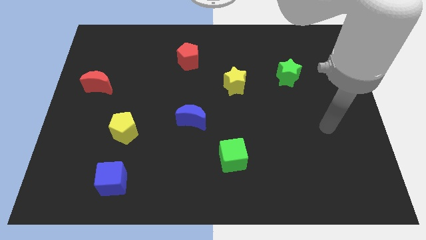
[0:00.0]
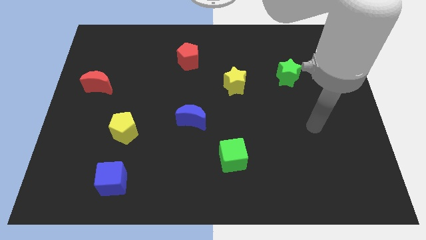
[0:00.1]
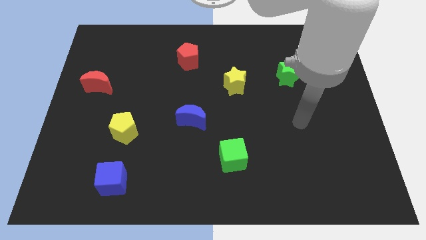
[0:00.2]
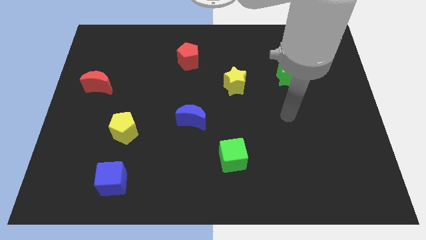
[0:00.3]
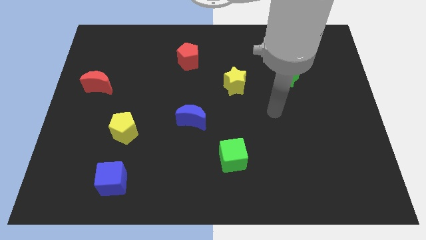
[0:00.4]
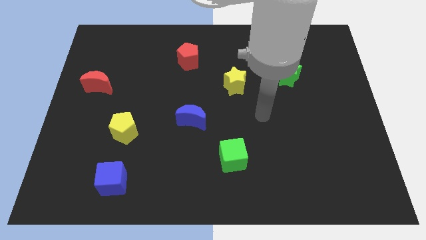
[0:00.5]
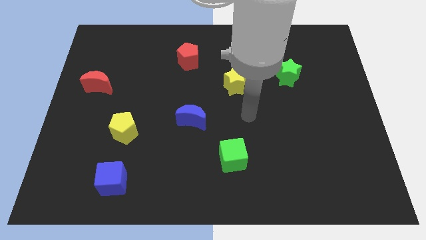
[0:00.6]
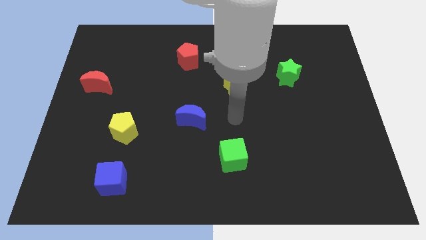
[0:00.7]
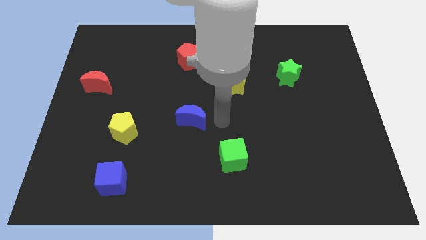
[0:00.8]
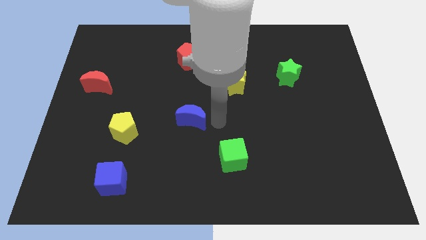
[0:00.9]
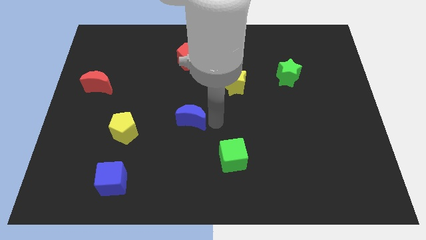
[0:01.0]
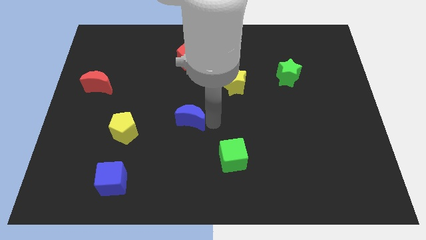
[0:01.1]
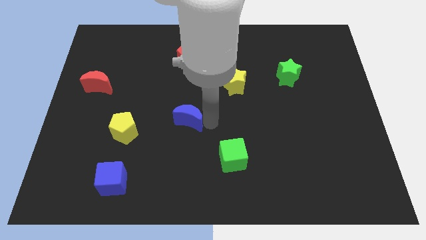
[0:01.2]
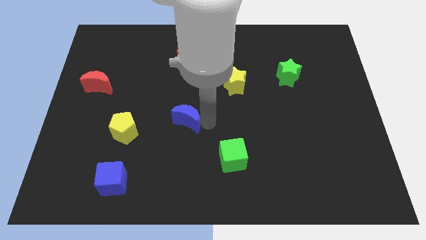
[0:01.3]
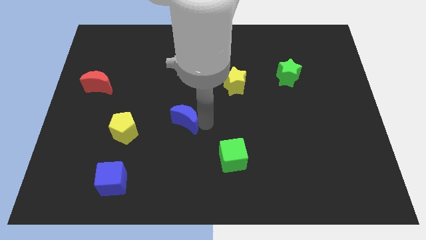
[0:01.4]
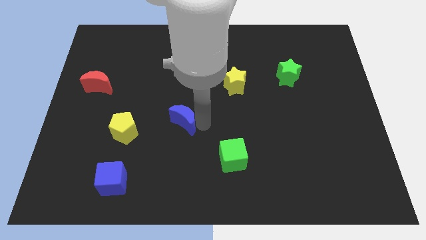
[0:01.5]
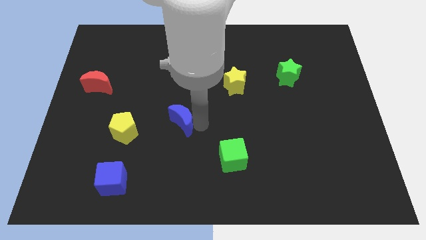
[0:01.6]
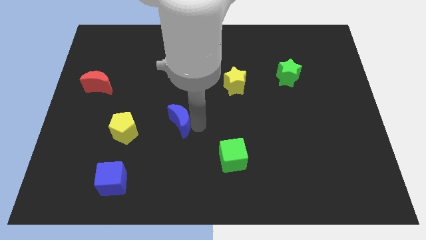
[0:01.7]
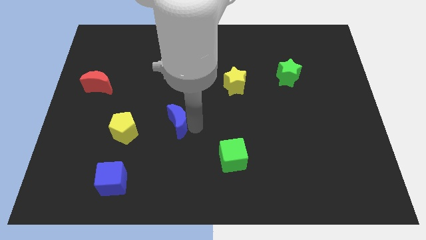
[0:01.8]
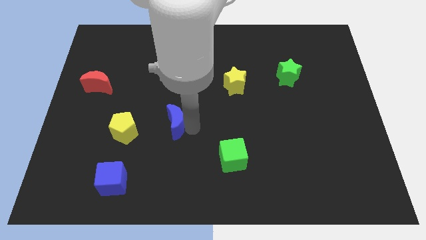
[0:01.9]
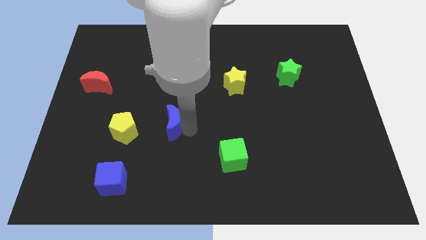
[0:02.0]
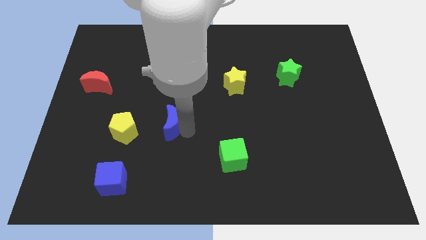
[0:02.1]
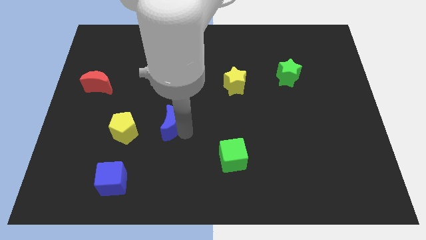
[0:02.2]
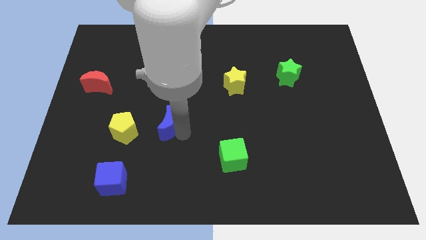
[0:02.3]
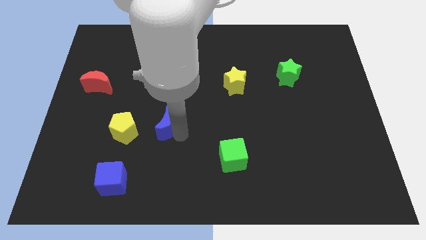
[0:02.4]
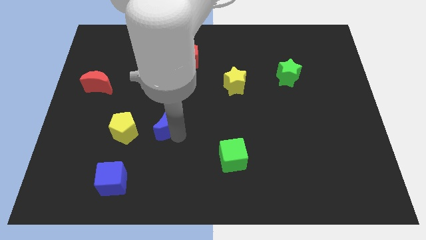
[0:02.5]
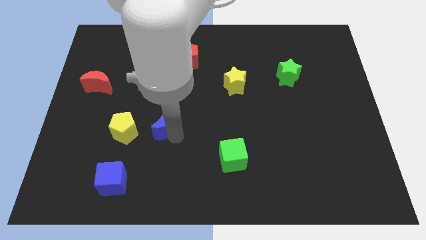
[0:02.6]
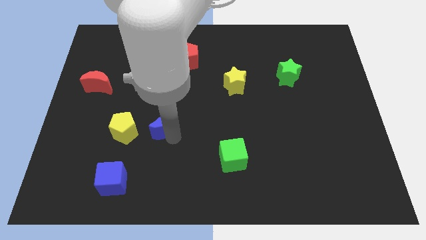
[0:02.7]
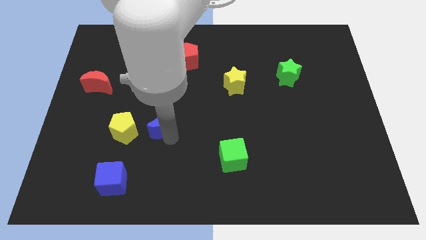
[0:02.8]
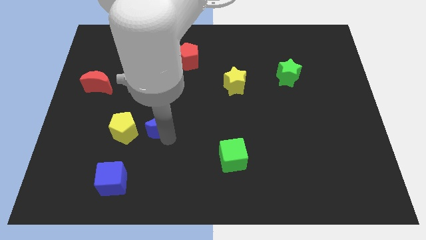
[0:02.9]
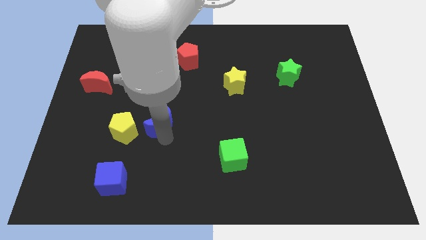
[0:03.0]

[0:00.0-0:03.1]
push the blue moon left a little bit

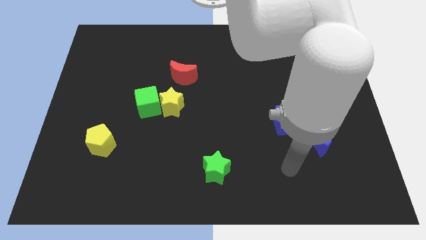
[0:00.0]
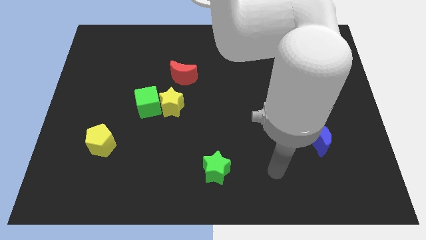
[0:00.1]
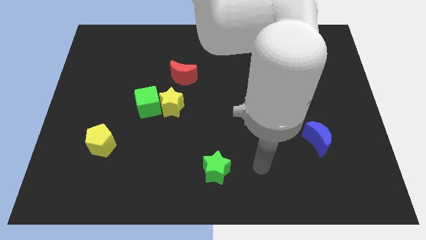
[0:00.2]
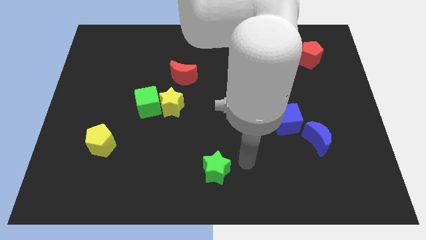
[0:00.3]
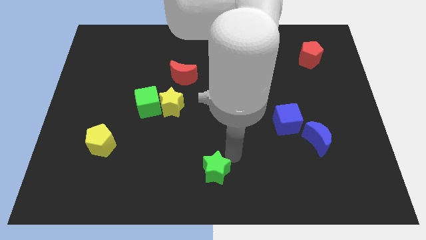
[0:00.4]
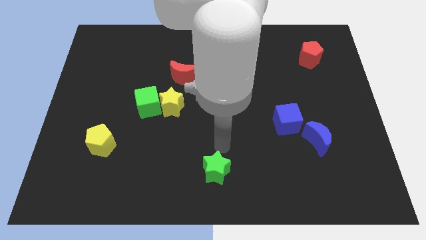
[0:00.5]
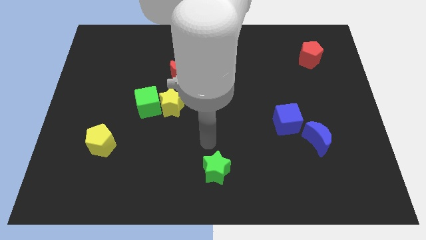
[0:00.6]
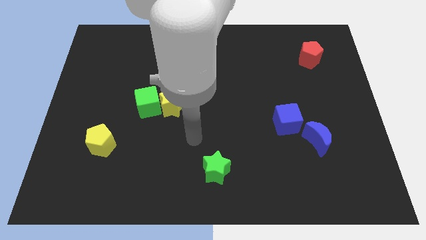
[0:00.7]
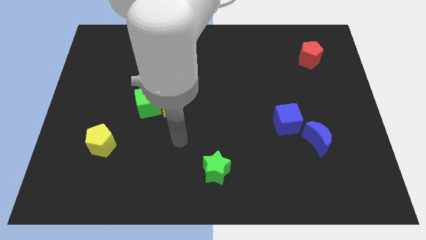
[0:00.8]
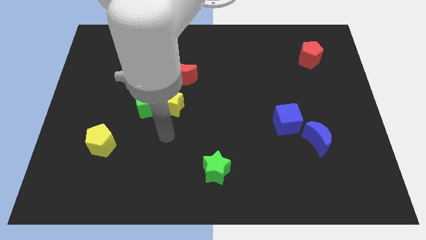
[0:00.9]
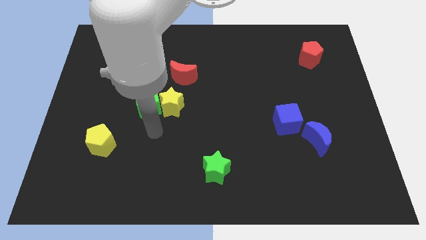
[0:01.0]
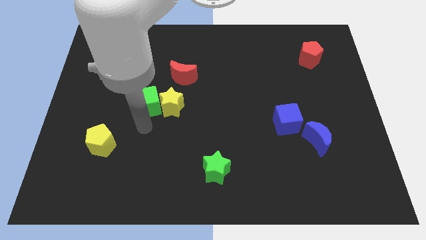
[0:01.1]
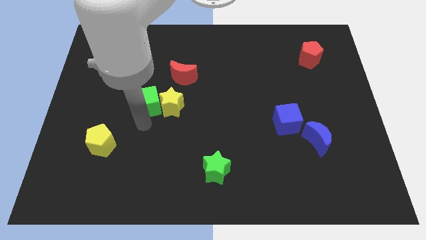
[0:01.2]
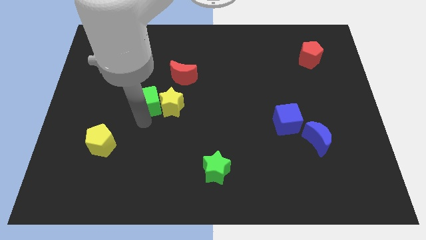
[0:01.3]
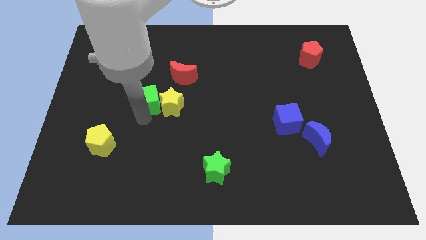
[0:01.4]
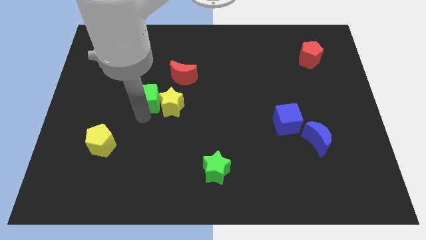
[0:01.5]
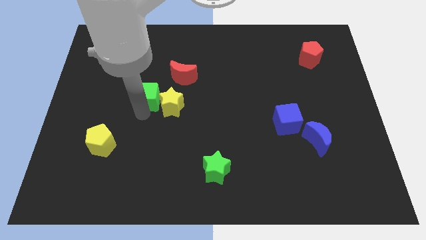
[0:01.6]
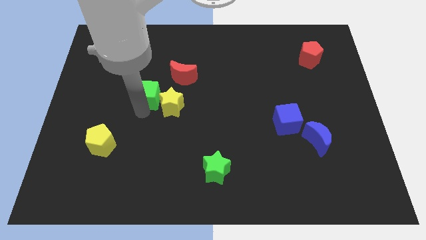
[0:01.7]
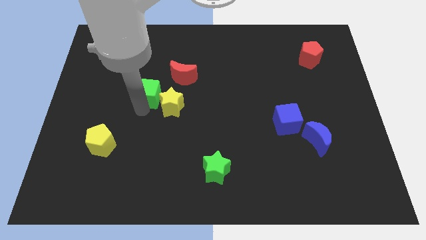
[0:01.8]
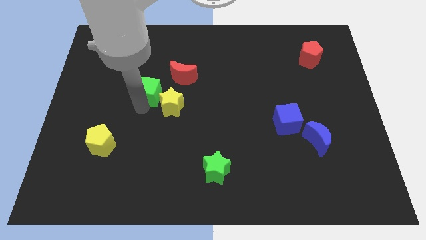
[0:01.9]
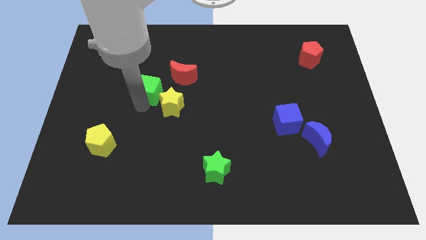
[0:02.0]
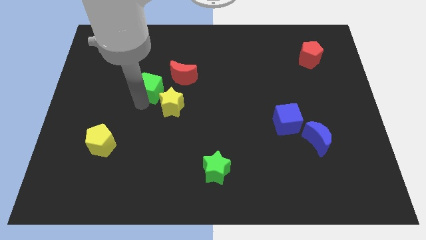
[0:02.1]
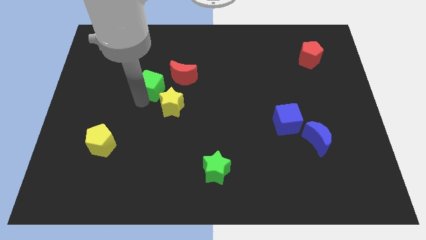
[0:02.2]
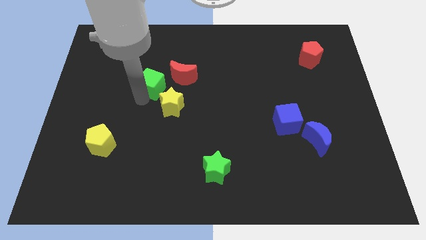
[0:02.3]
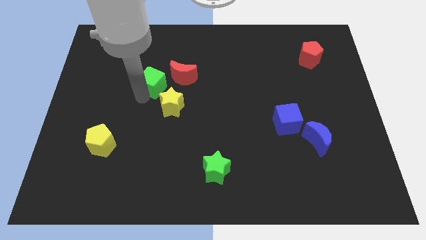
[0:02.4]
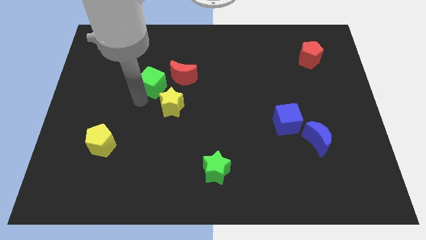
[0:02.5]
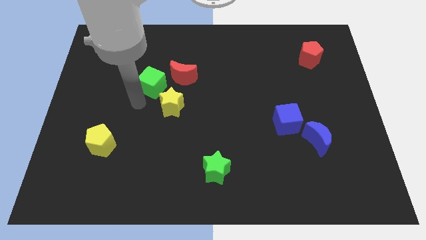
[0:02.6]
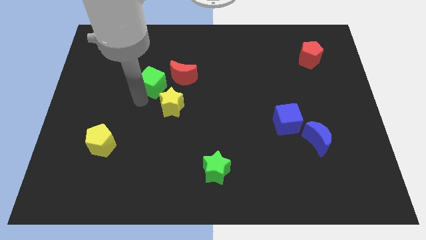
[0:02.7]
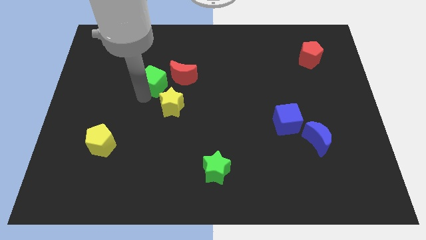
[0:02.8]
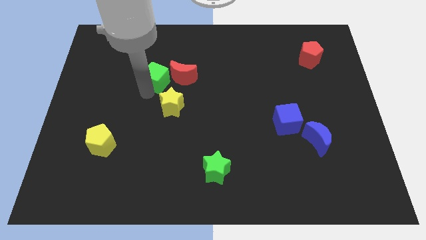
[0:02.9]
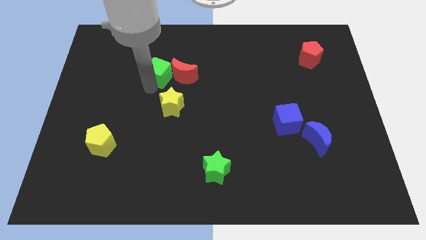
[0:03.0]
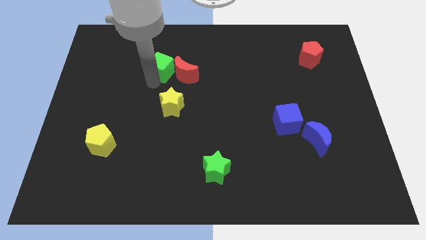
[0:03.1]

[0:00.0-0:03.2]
slightly slide the green cube diagonally upwards and right

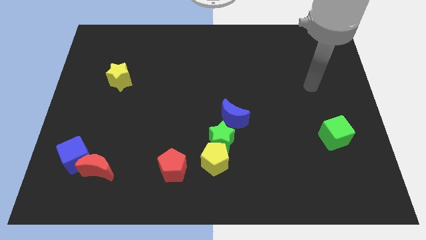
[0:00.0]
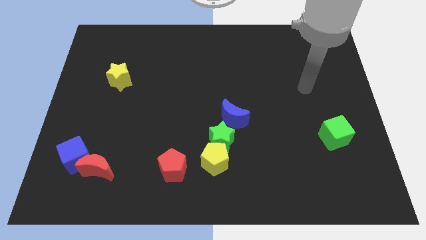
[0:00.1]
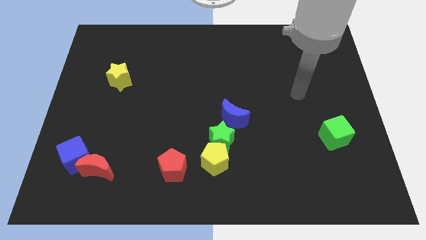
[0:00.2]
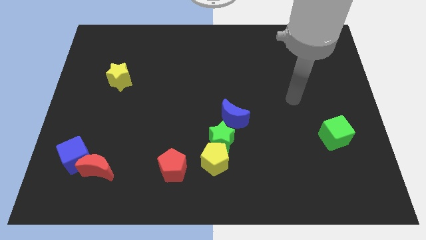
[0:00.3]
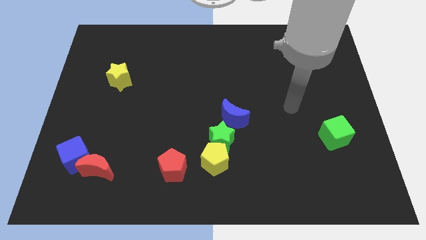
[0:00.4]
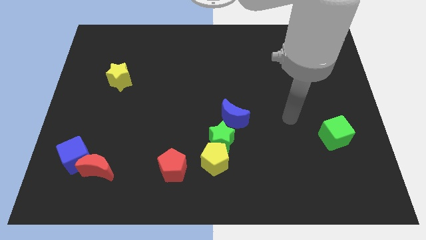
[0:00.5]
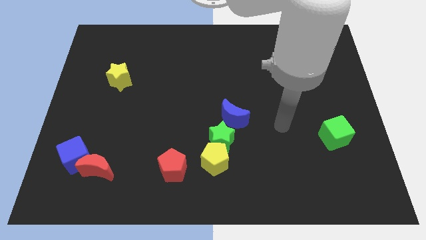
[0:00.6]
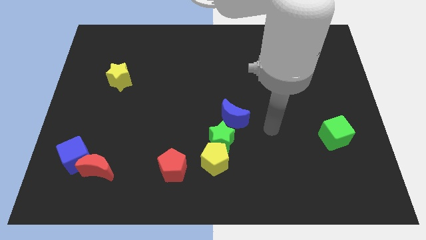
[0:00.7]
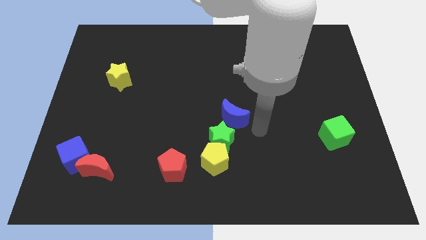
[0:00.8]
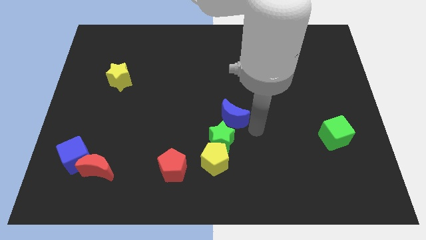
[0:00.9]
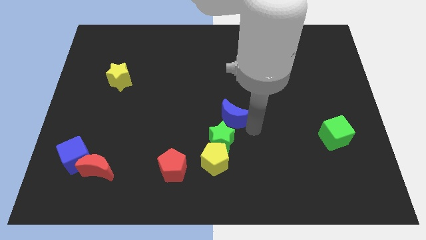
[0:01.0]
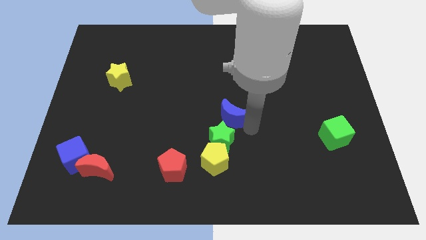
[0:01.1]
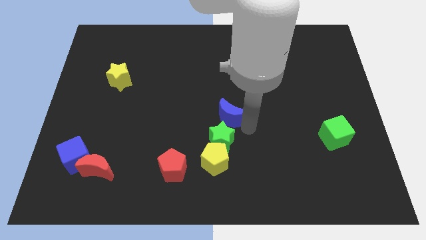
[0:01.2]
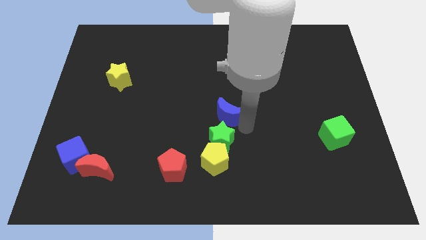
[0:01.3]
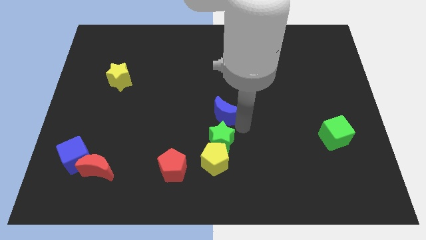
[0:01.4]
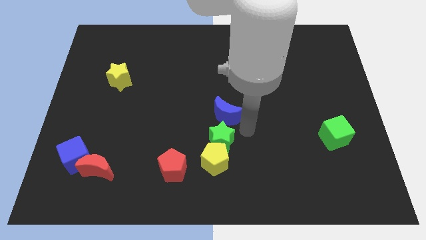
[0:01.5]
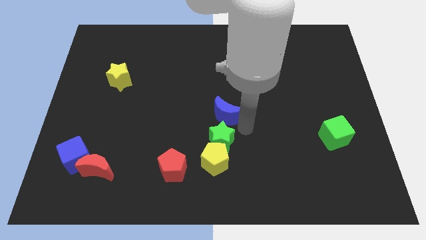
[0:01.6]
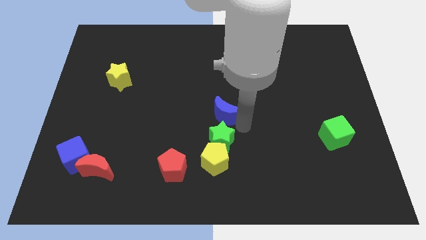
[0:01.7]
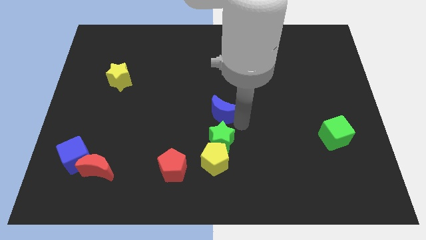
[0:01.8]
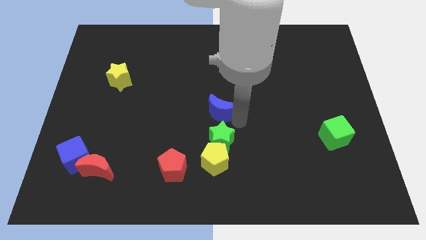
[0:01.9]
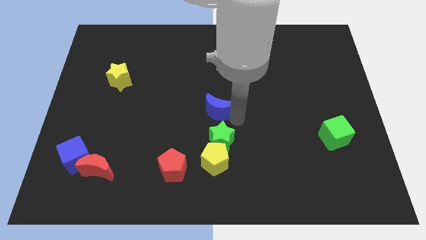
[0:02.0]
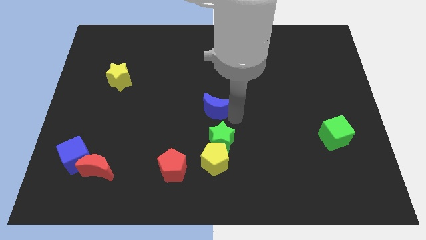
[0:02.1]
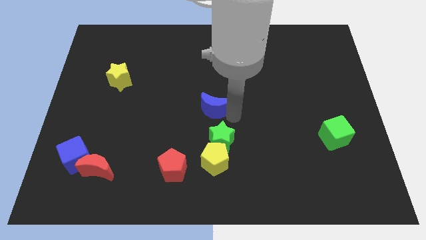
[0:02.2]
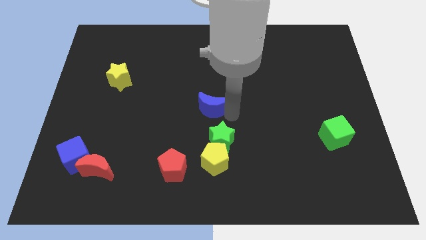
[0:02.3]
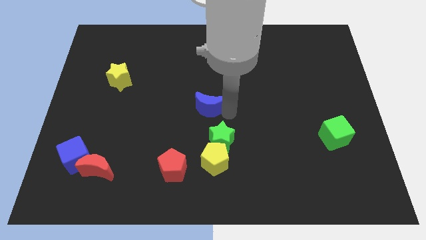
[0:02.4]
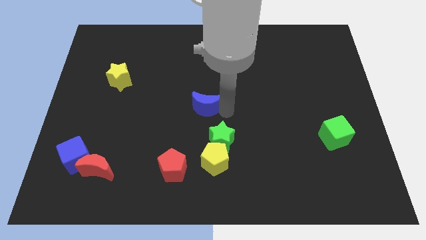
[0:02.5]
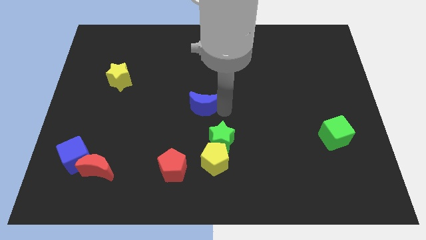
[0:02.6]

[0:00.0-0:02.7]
move the blue moon up and then to the left a little bit
